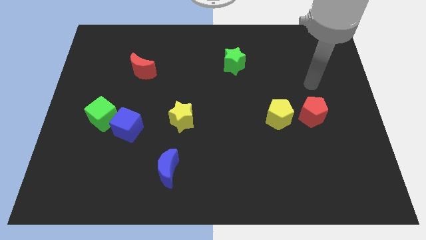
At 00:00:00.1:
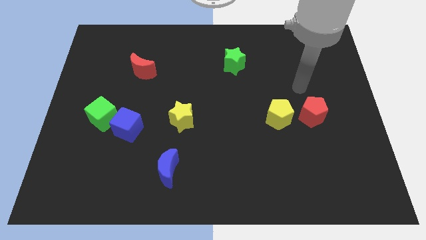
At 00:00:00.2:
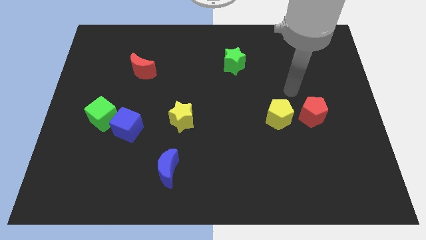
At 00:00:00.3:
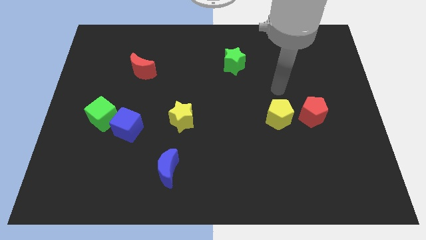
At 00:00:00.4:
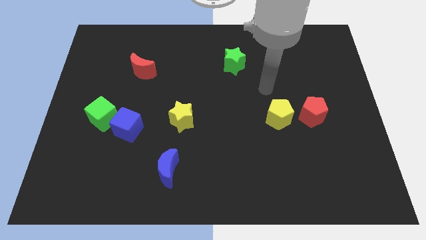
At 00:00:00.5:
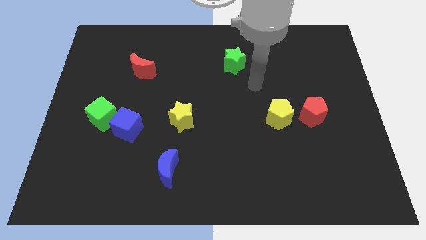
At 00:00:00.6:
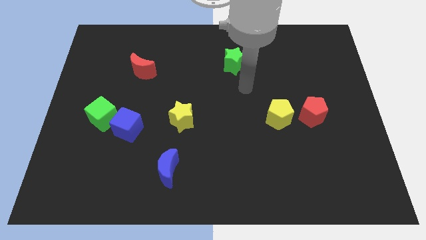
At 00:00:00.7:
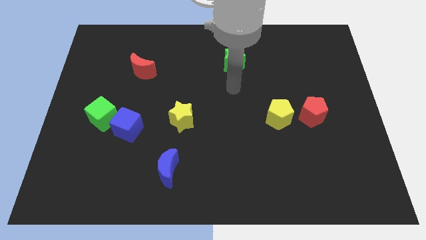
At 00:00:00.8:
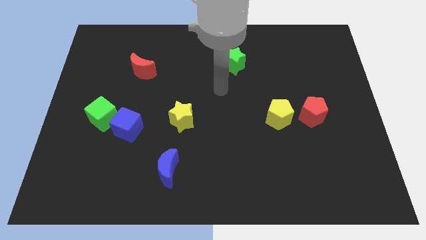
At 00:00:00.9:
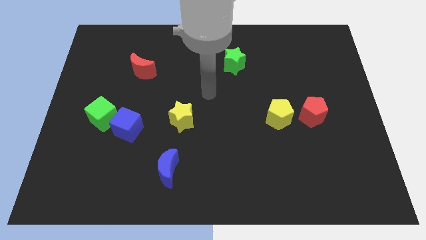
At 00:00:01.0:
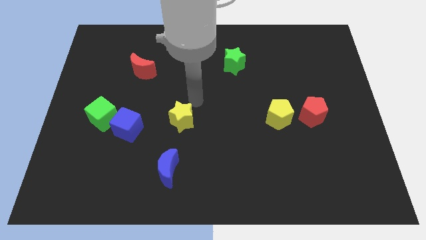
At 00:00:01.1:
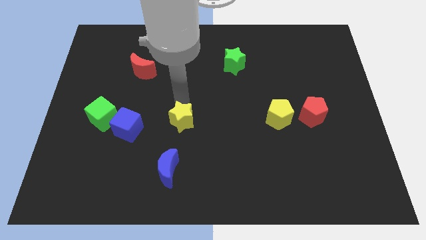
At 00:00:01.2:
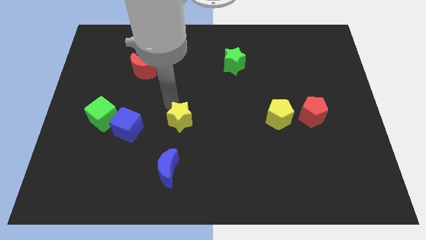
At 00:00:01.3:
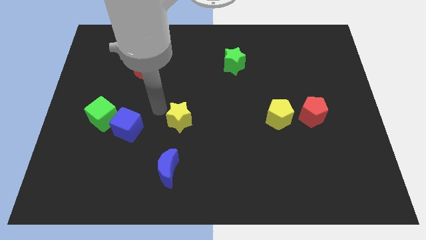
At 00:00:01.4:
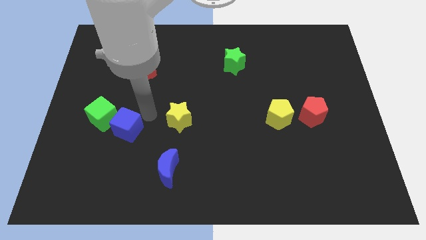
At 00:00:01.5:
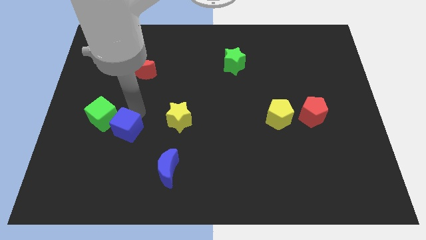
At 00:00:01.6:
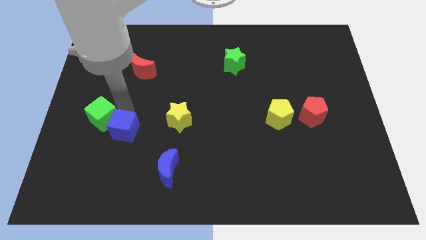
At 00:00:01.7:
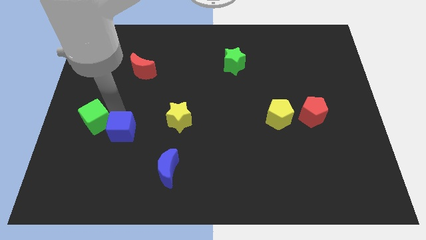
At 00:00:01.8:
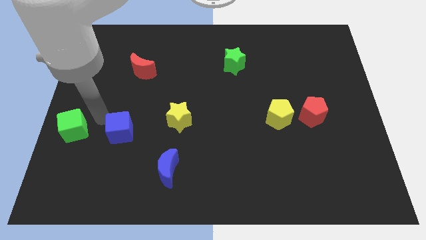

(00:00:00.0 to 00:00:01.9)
separate the blue cube from the green cube

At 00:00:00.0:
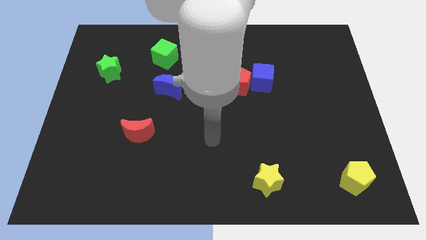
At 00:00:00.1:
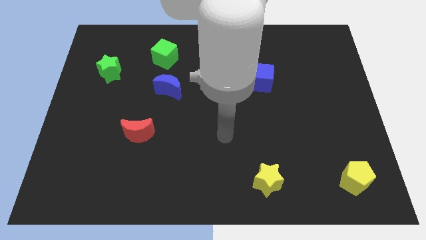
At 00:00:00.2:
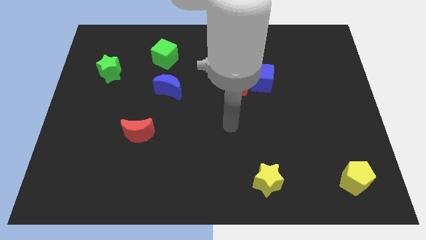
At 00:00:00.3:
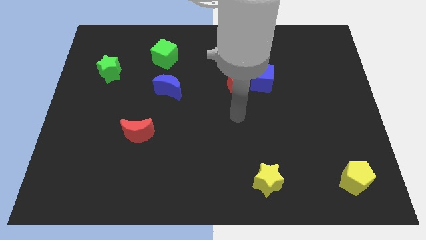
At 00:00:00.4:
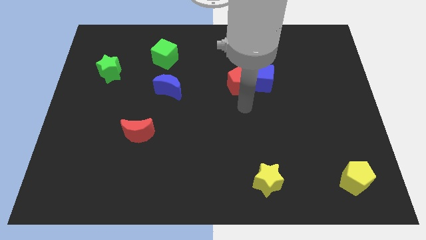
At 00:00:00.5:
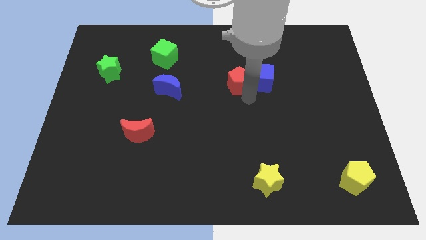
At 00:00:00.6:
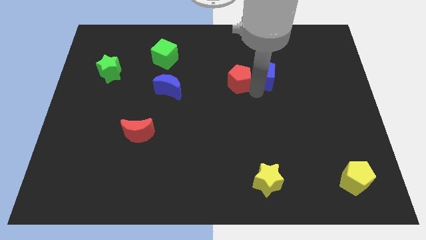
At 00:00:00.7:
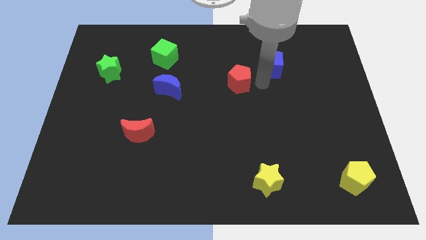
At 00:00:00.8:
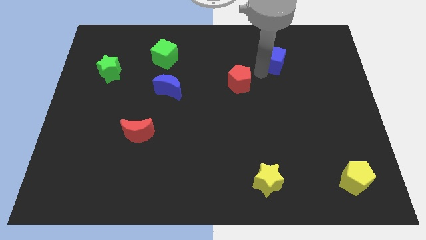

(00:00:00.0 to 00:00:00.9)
separate the red pentagon from the blue cube

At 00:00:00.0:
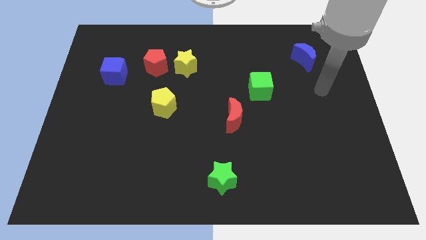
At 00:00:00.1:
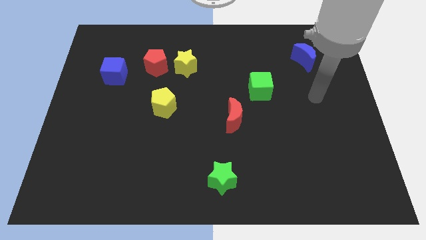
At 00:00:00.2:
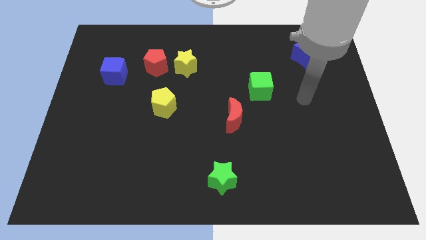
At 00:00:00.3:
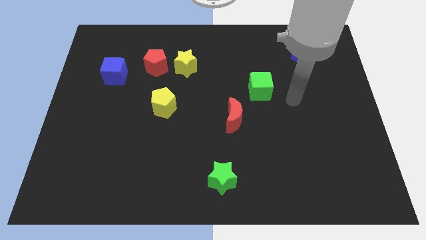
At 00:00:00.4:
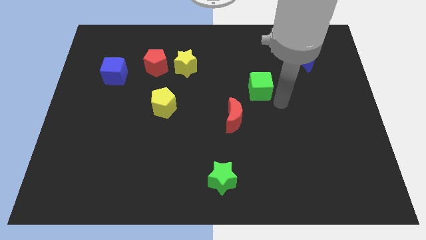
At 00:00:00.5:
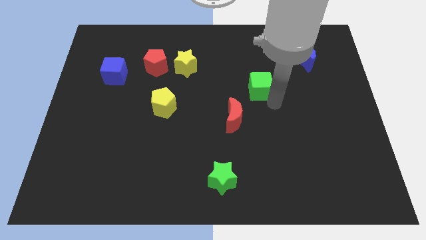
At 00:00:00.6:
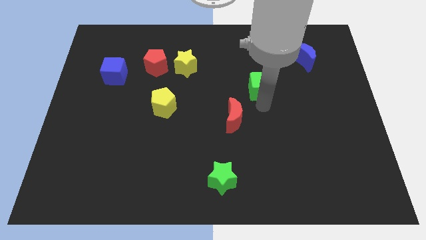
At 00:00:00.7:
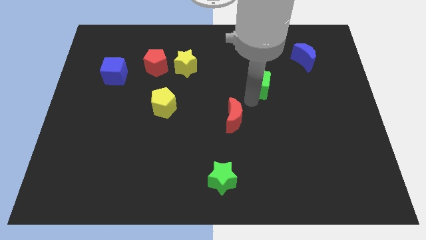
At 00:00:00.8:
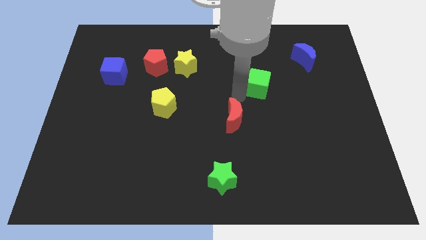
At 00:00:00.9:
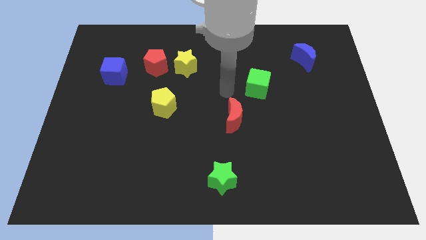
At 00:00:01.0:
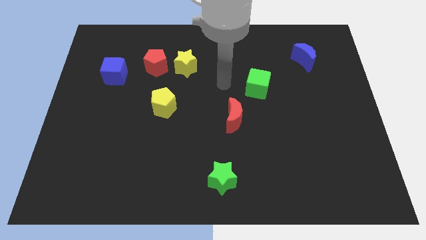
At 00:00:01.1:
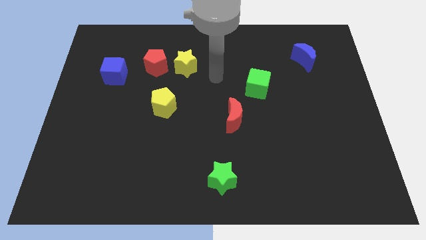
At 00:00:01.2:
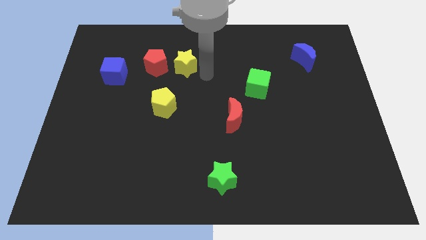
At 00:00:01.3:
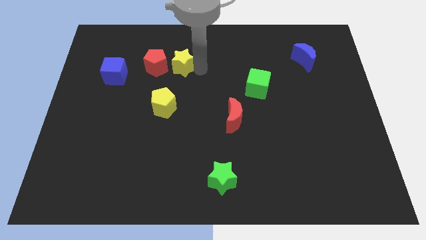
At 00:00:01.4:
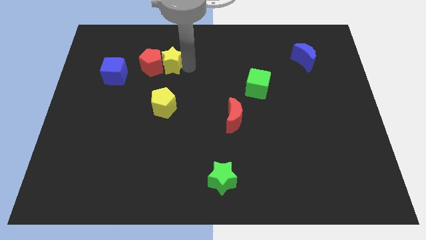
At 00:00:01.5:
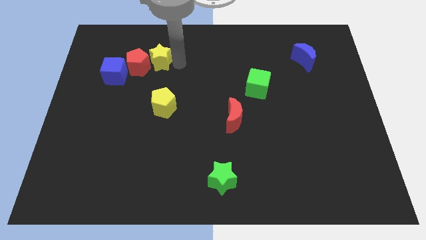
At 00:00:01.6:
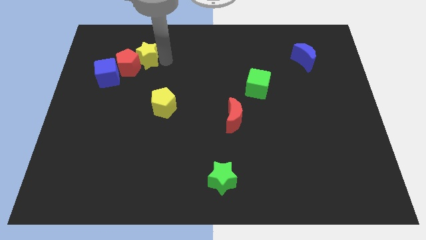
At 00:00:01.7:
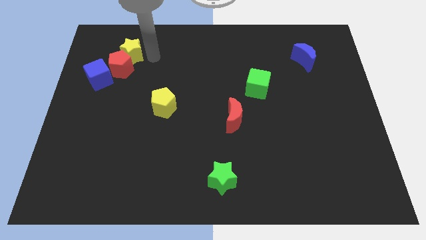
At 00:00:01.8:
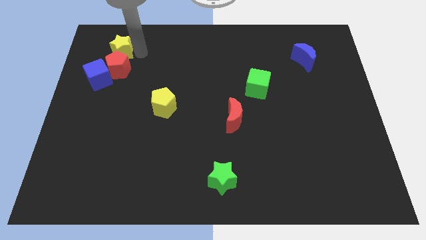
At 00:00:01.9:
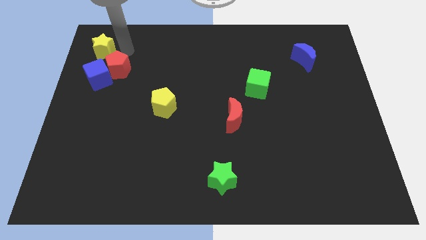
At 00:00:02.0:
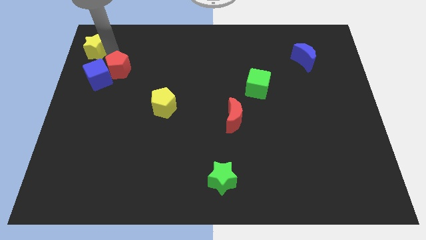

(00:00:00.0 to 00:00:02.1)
move the red pentagon away from the yellow star

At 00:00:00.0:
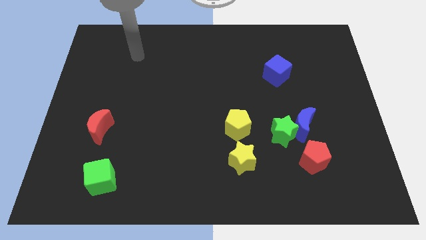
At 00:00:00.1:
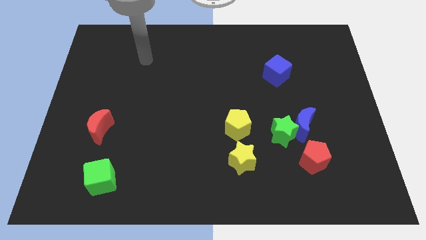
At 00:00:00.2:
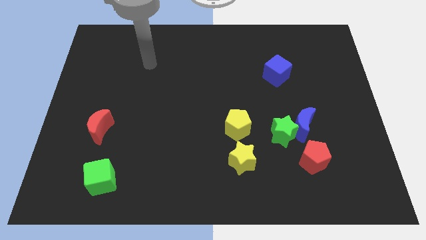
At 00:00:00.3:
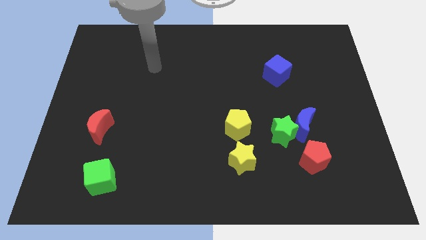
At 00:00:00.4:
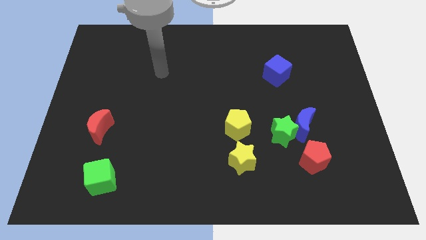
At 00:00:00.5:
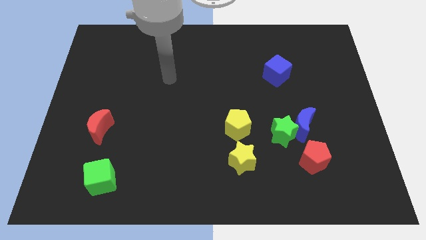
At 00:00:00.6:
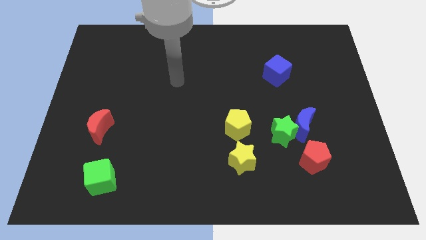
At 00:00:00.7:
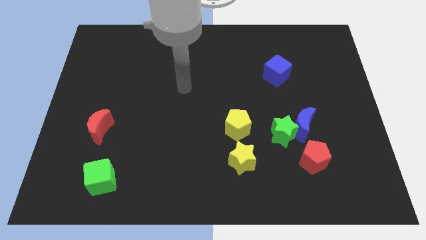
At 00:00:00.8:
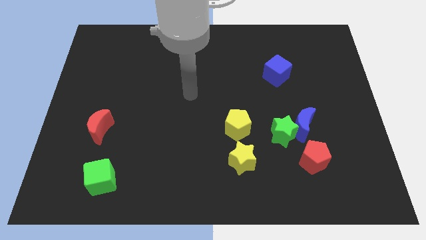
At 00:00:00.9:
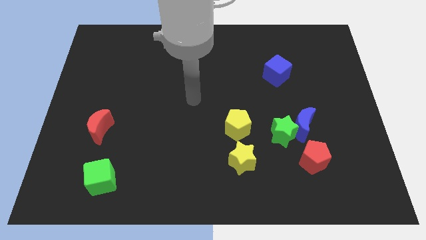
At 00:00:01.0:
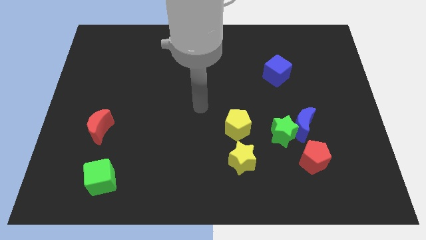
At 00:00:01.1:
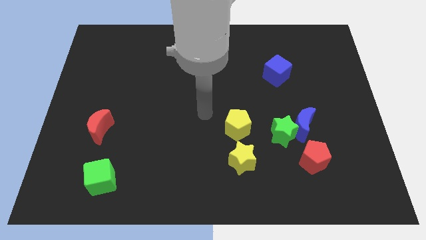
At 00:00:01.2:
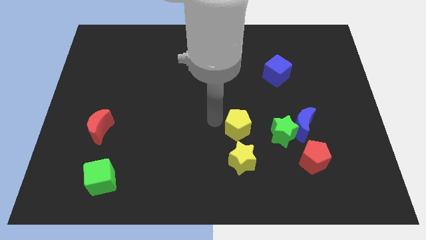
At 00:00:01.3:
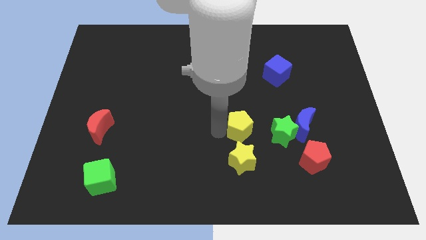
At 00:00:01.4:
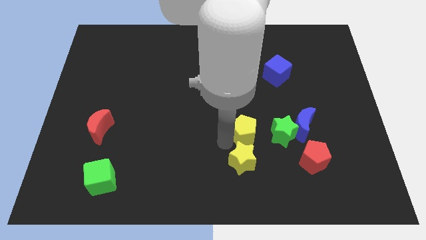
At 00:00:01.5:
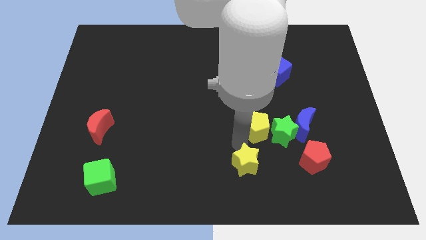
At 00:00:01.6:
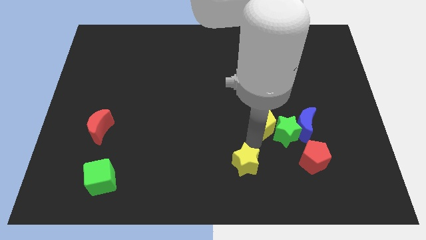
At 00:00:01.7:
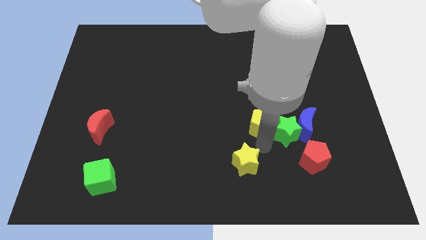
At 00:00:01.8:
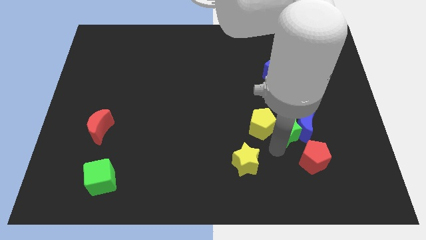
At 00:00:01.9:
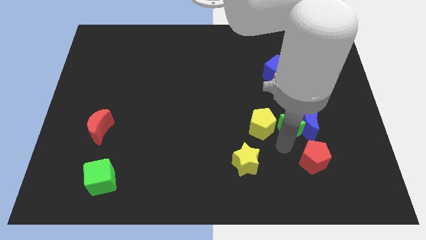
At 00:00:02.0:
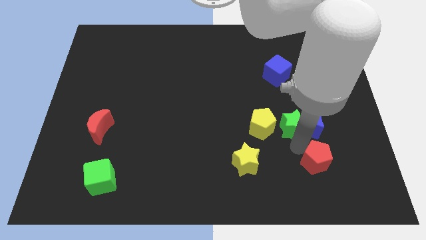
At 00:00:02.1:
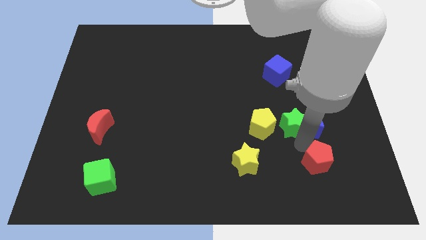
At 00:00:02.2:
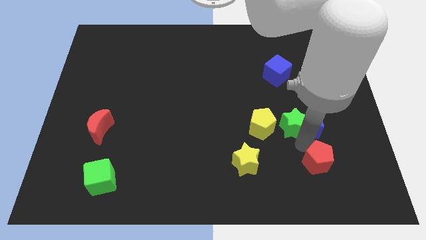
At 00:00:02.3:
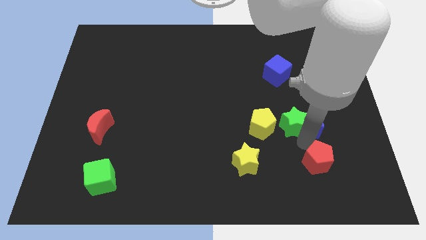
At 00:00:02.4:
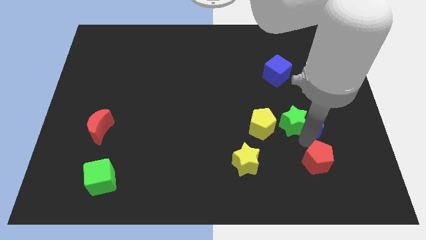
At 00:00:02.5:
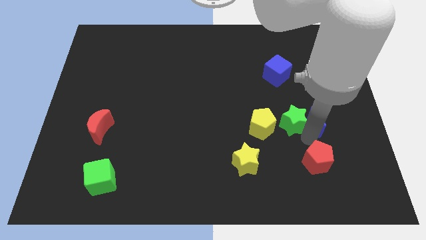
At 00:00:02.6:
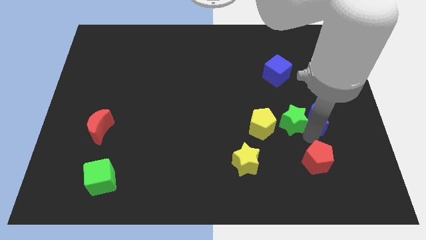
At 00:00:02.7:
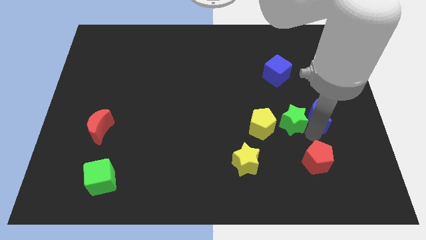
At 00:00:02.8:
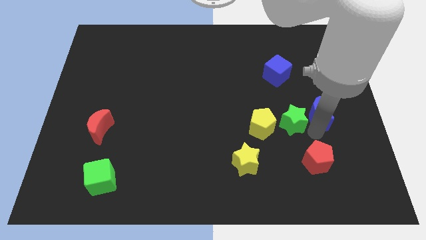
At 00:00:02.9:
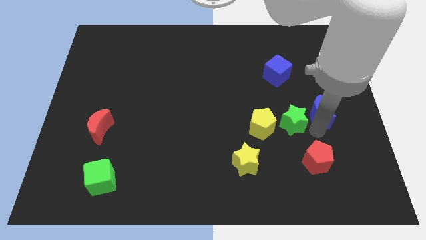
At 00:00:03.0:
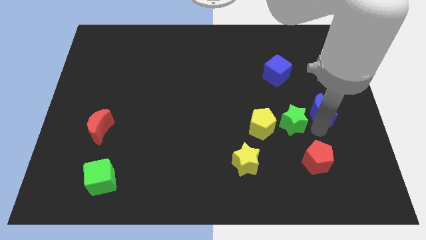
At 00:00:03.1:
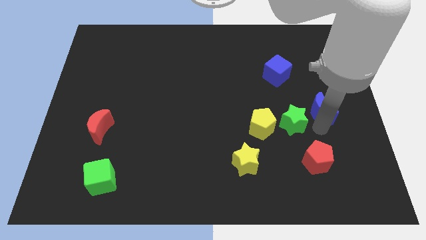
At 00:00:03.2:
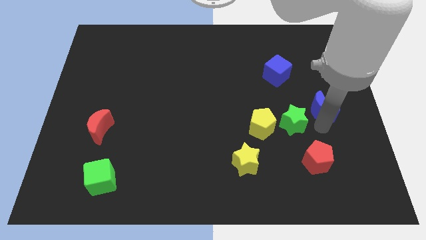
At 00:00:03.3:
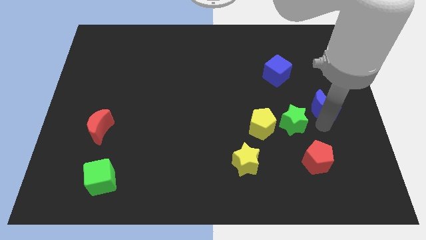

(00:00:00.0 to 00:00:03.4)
move the blue moon away from the green star and red pentagon

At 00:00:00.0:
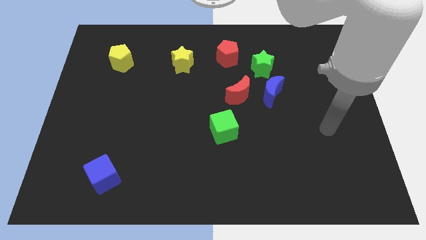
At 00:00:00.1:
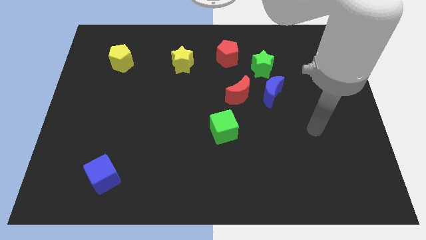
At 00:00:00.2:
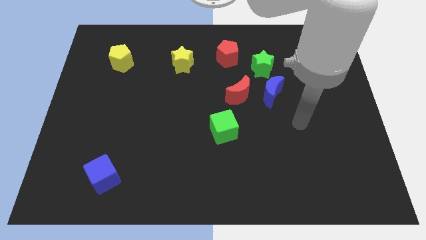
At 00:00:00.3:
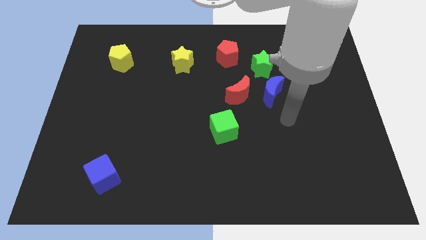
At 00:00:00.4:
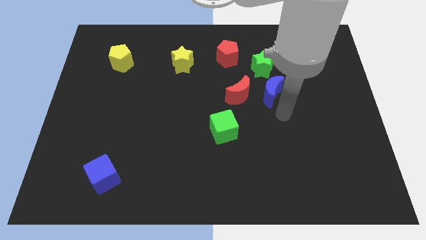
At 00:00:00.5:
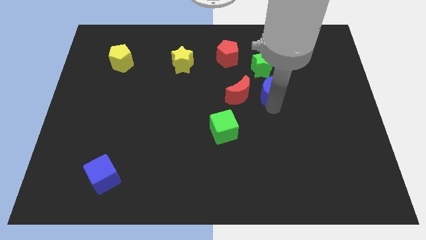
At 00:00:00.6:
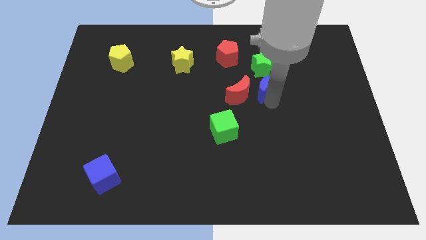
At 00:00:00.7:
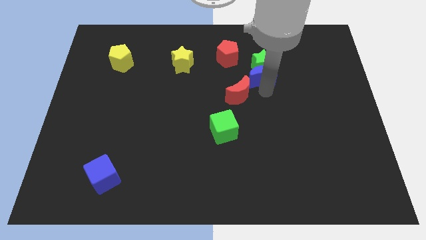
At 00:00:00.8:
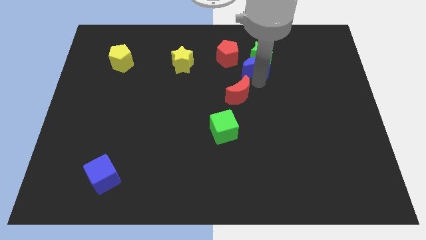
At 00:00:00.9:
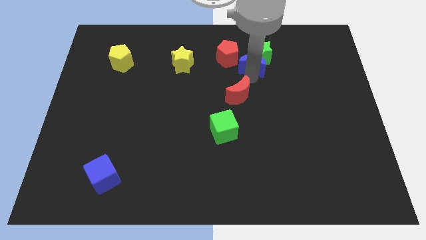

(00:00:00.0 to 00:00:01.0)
separate the red moon from the blue moon
